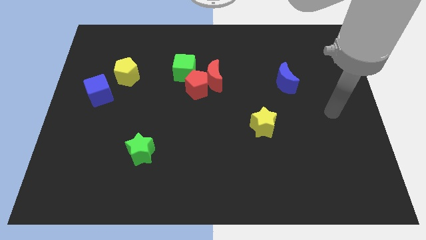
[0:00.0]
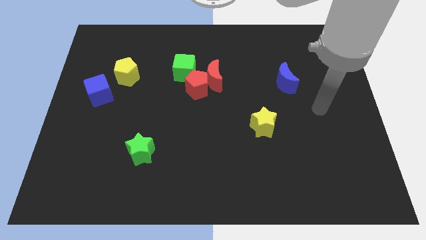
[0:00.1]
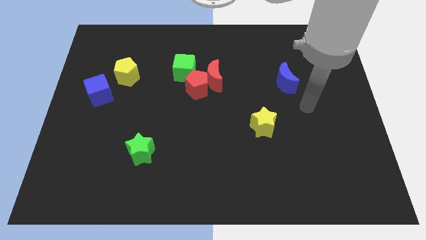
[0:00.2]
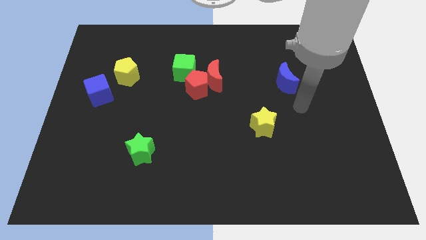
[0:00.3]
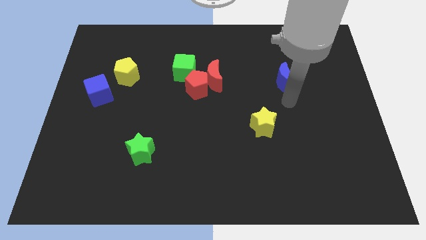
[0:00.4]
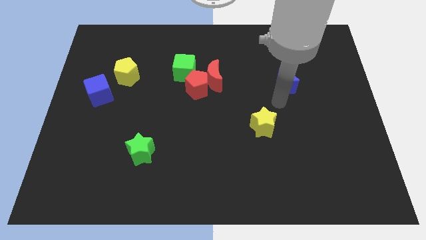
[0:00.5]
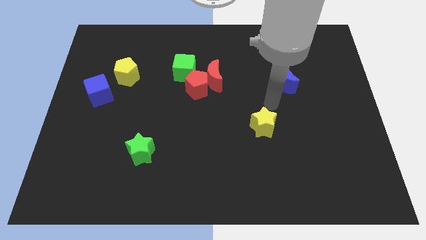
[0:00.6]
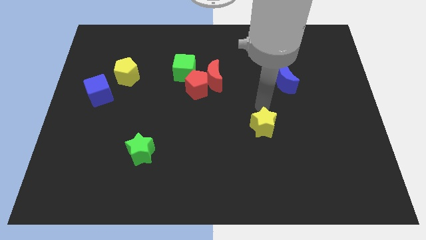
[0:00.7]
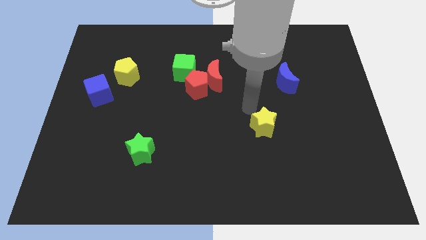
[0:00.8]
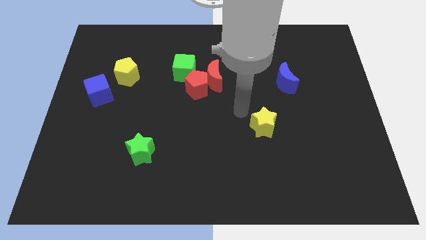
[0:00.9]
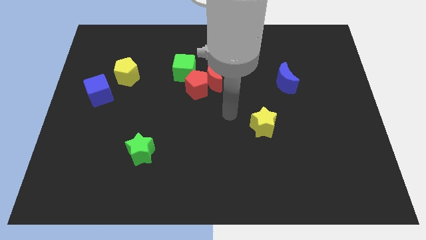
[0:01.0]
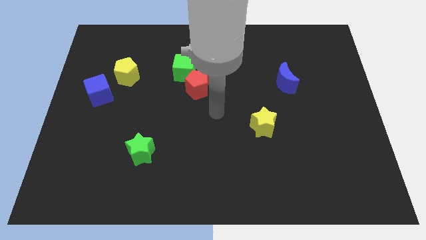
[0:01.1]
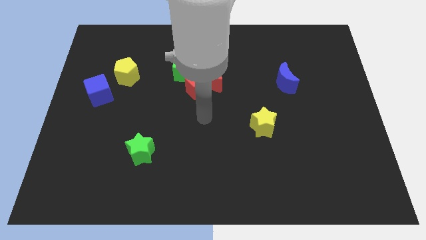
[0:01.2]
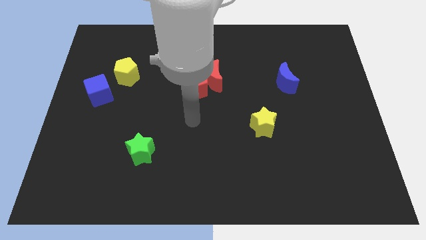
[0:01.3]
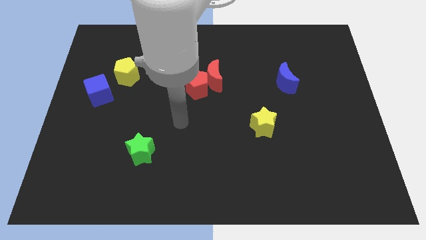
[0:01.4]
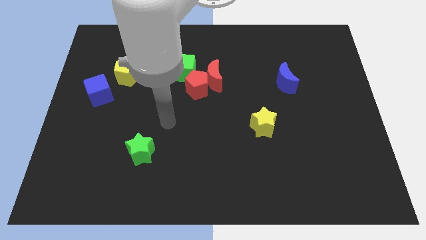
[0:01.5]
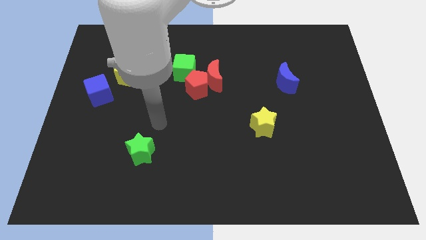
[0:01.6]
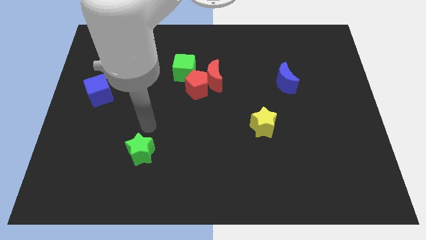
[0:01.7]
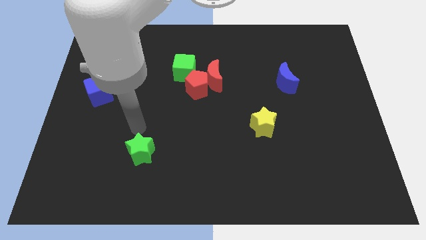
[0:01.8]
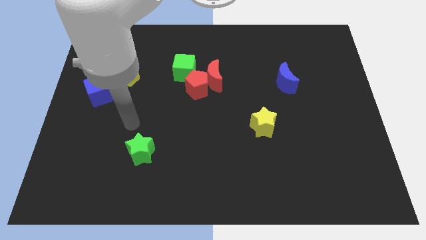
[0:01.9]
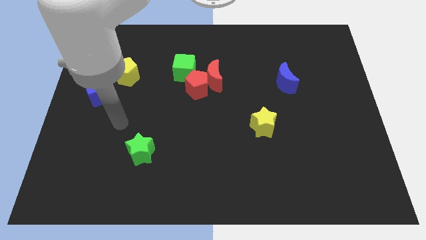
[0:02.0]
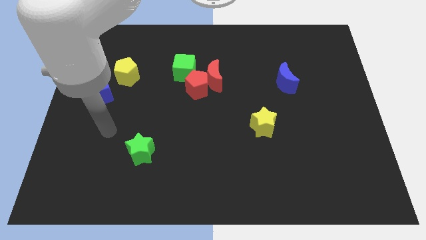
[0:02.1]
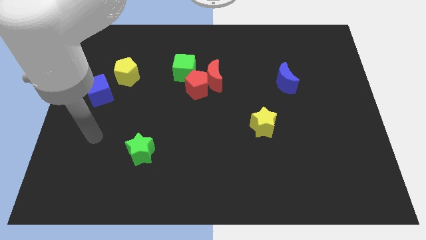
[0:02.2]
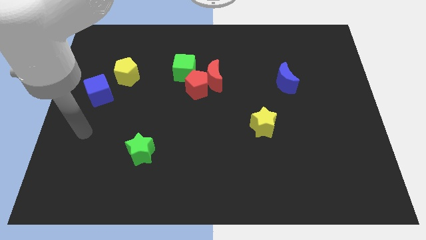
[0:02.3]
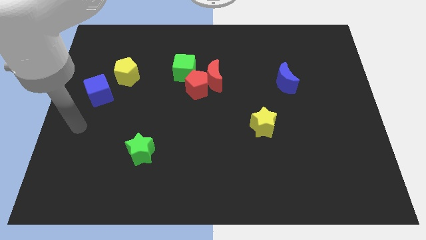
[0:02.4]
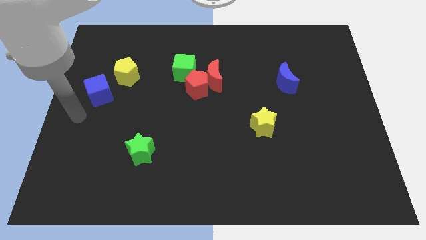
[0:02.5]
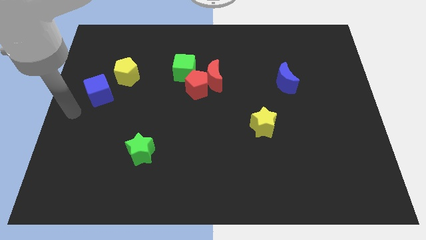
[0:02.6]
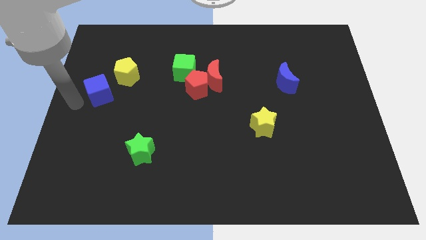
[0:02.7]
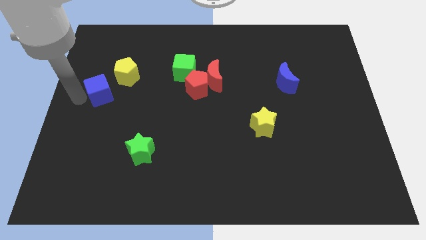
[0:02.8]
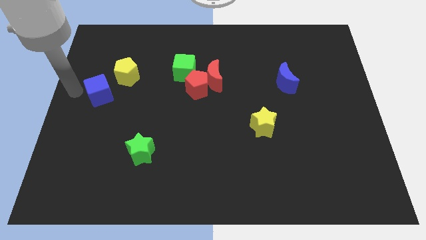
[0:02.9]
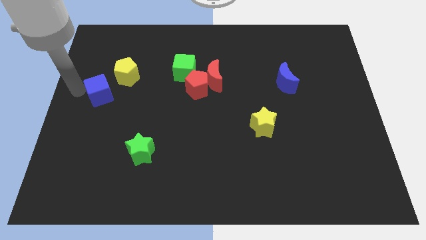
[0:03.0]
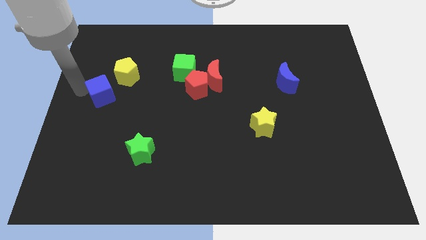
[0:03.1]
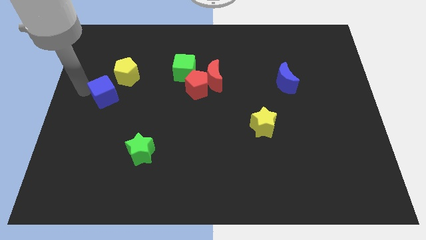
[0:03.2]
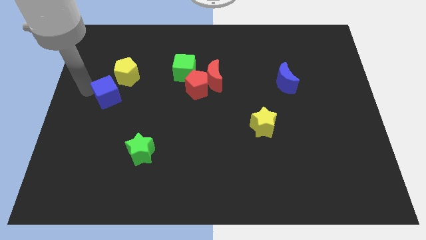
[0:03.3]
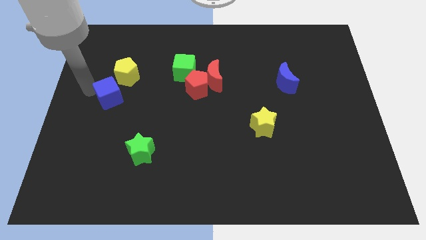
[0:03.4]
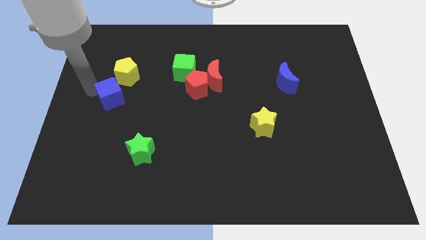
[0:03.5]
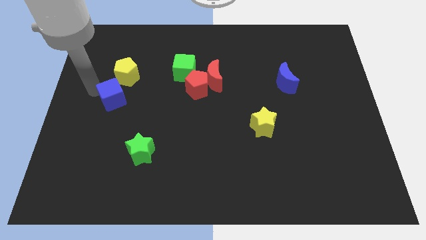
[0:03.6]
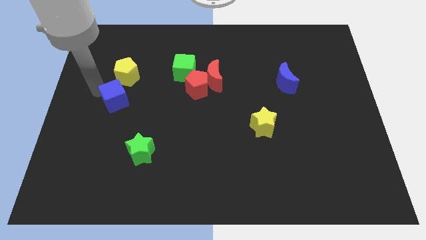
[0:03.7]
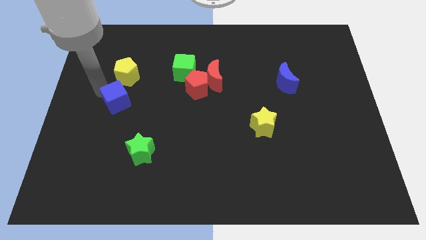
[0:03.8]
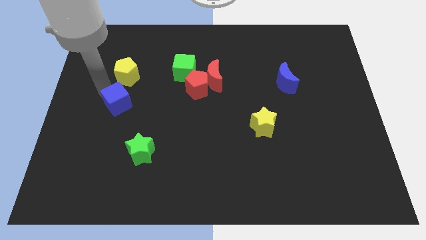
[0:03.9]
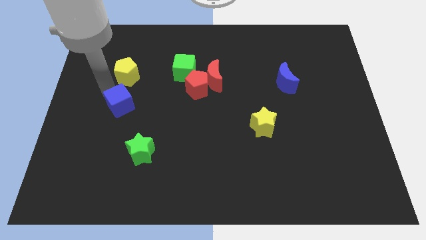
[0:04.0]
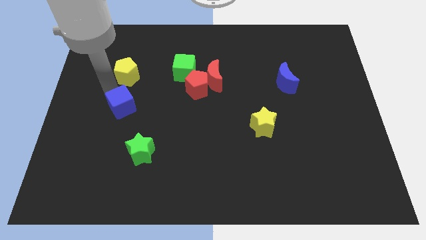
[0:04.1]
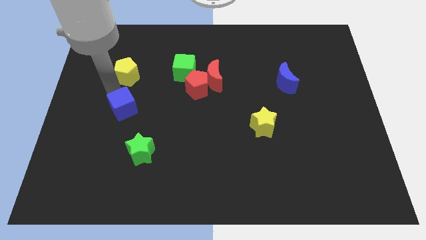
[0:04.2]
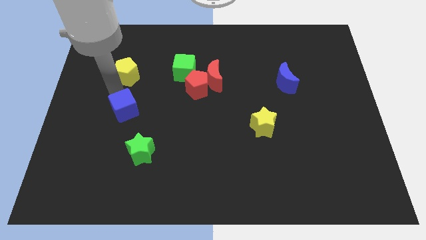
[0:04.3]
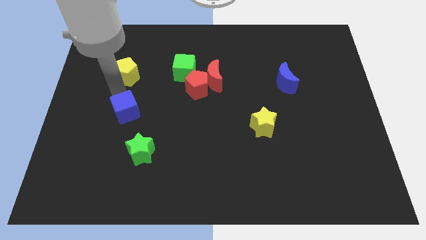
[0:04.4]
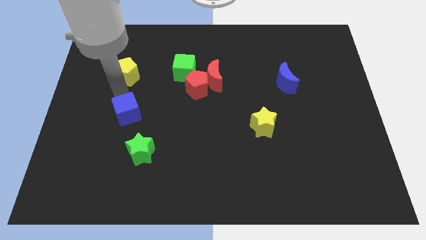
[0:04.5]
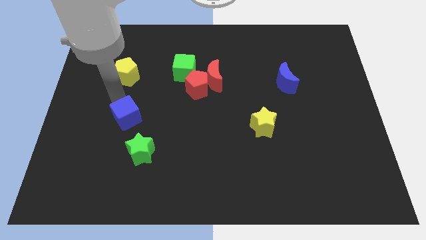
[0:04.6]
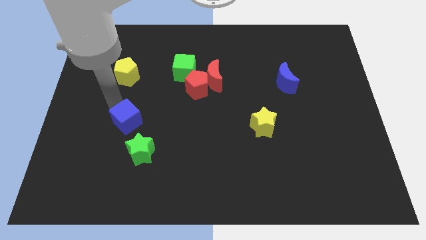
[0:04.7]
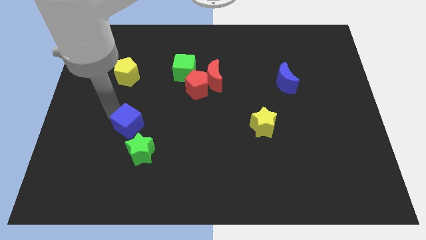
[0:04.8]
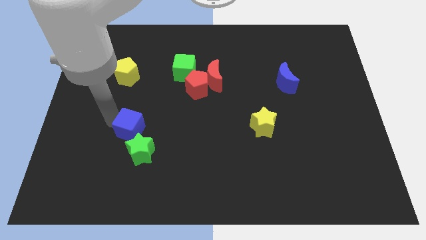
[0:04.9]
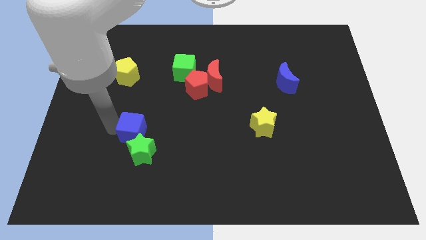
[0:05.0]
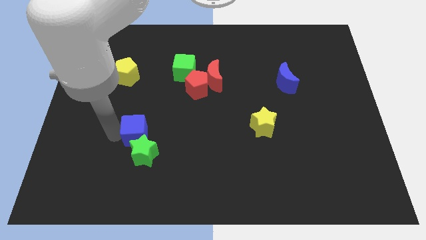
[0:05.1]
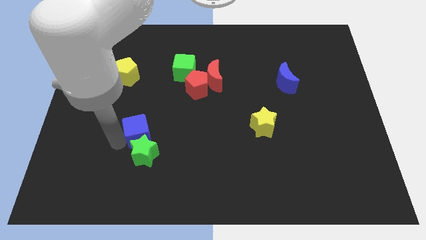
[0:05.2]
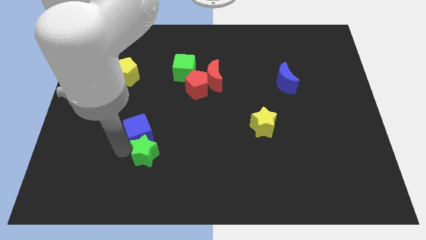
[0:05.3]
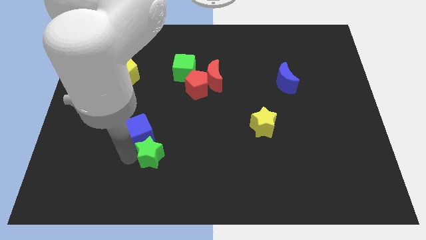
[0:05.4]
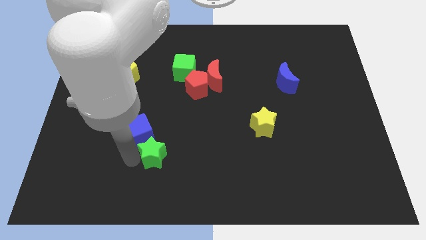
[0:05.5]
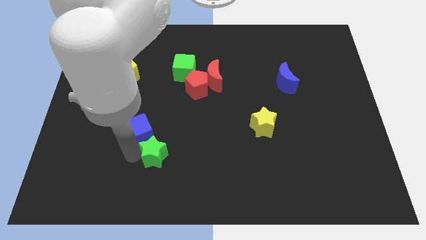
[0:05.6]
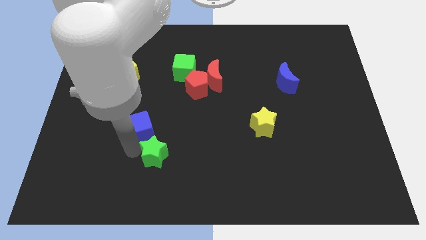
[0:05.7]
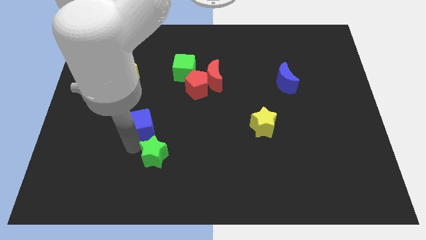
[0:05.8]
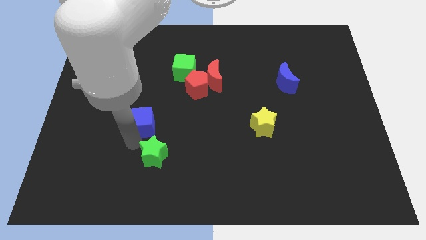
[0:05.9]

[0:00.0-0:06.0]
move the blue cube somewhat right

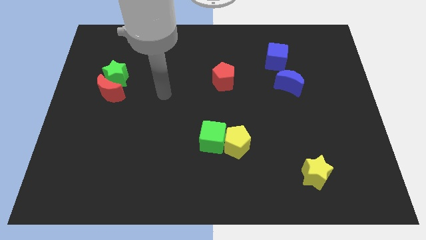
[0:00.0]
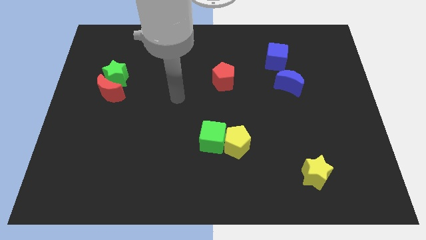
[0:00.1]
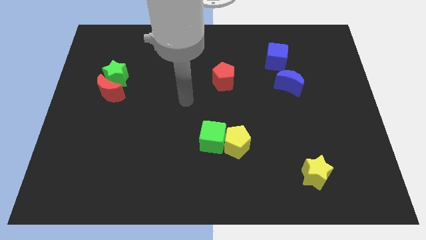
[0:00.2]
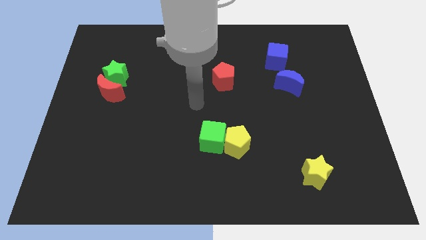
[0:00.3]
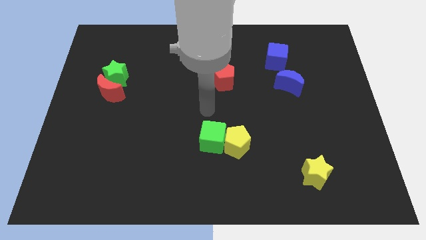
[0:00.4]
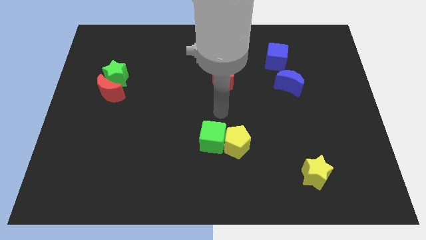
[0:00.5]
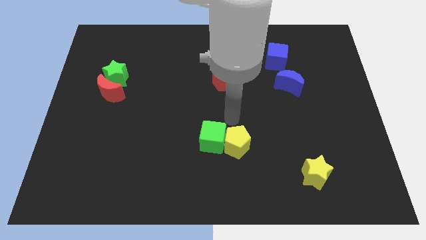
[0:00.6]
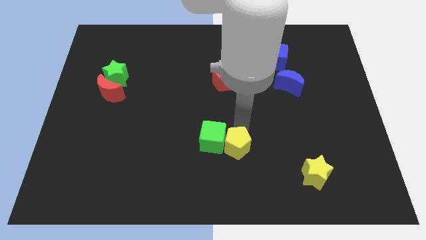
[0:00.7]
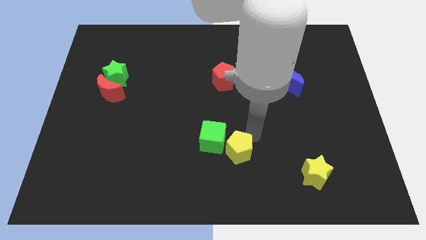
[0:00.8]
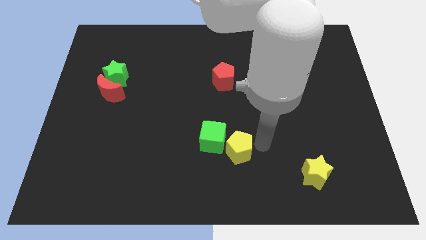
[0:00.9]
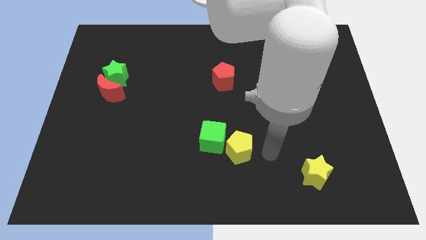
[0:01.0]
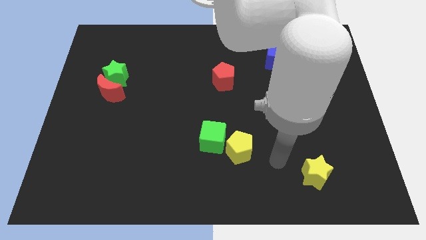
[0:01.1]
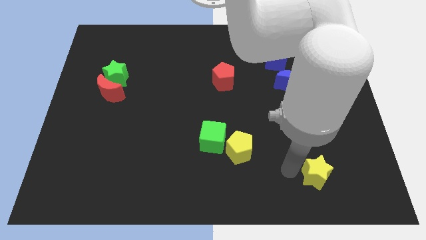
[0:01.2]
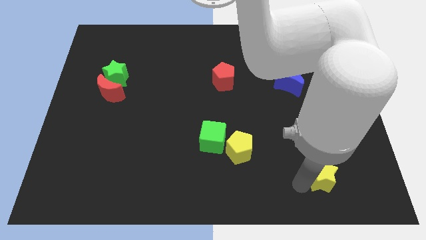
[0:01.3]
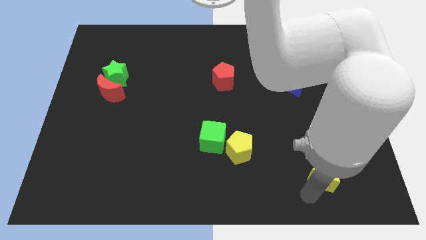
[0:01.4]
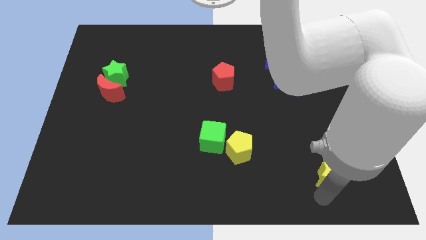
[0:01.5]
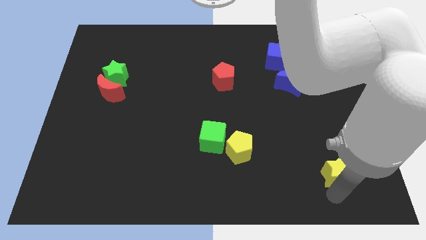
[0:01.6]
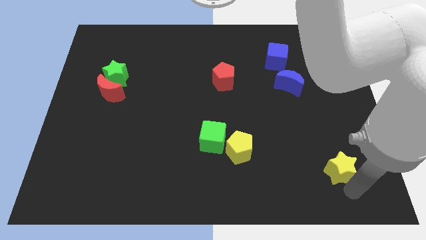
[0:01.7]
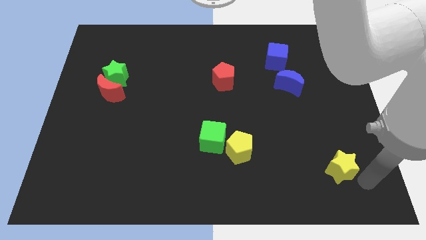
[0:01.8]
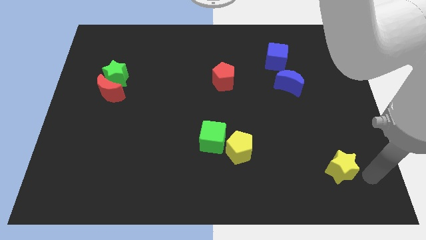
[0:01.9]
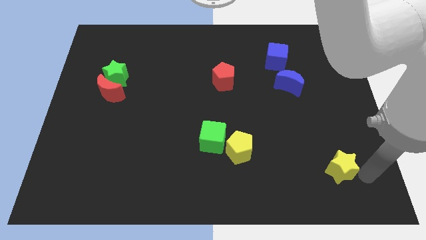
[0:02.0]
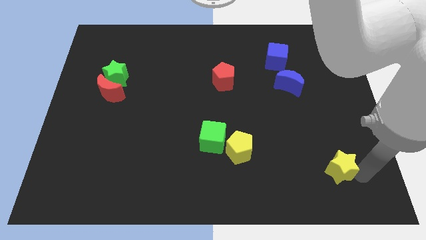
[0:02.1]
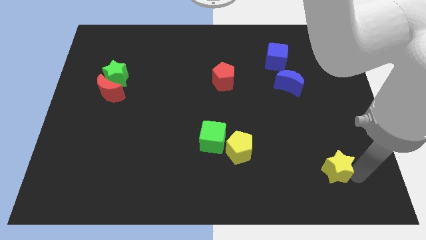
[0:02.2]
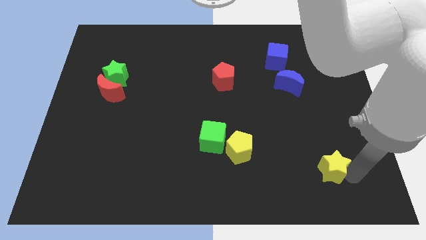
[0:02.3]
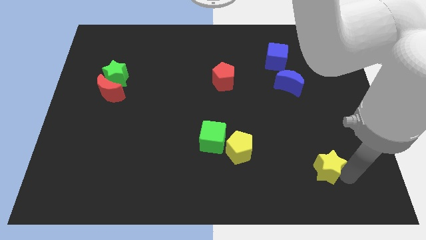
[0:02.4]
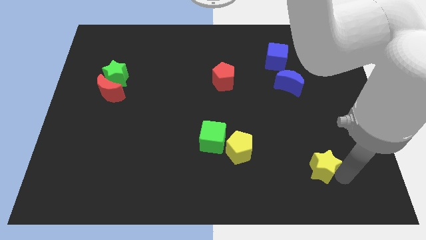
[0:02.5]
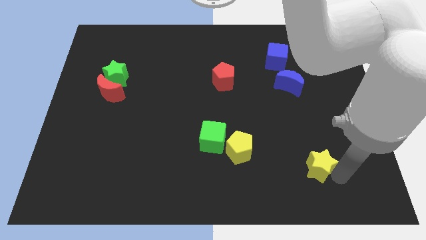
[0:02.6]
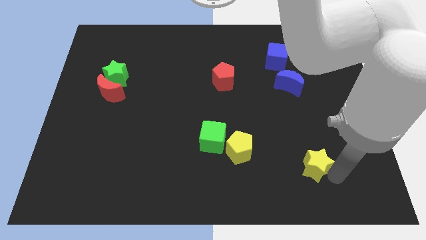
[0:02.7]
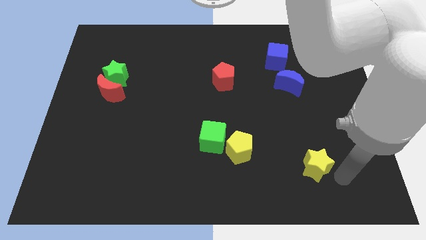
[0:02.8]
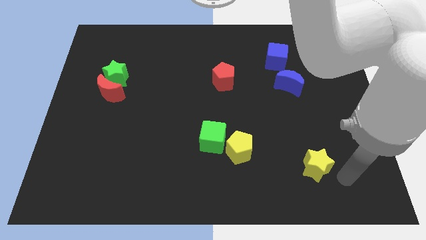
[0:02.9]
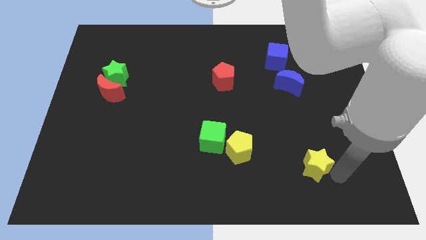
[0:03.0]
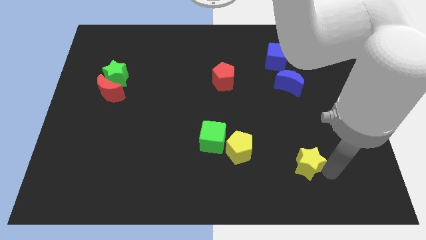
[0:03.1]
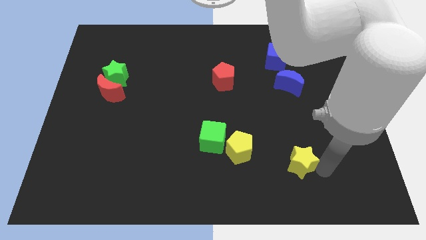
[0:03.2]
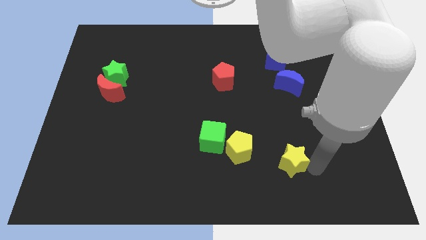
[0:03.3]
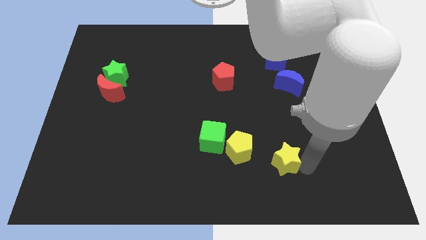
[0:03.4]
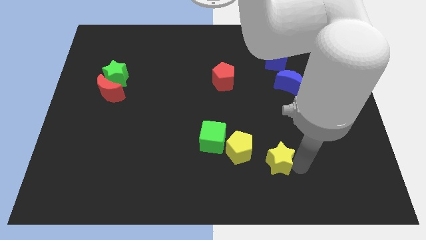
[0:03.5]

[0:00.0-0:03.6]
move the yellow star up and then to the left a little
